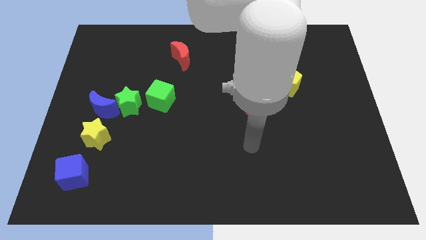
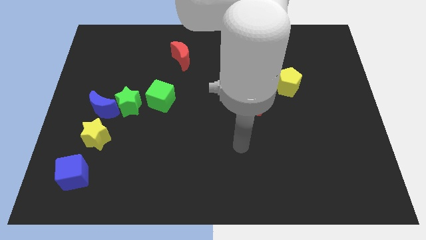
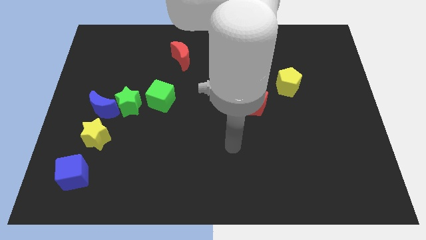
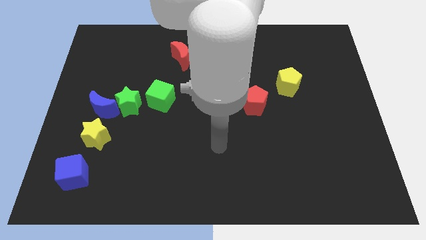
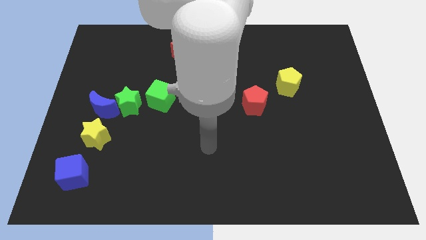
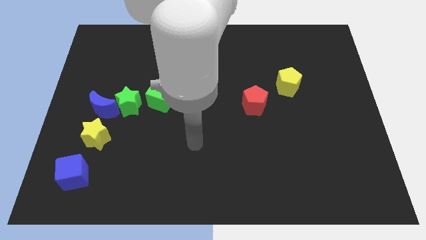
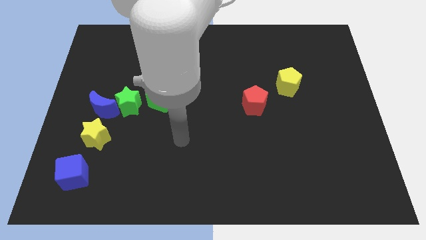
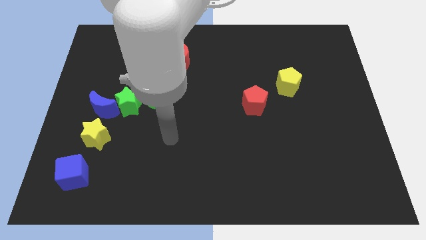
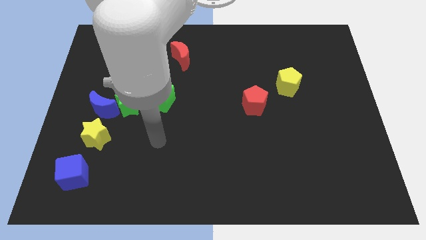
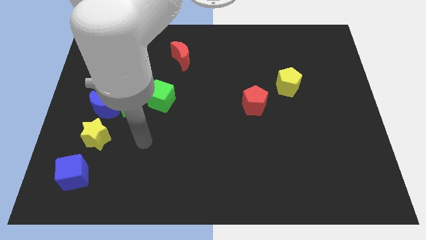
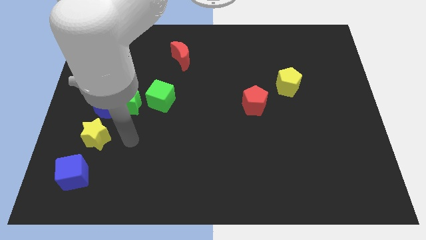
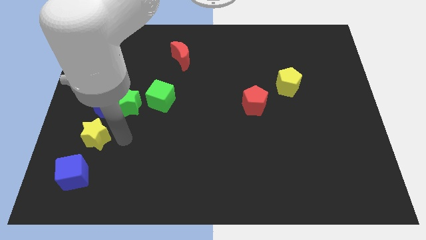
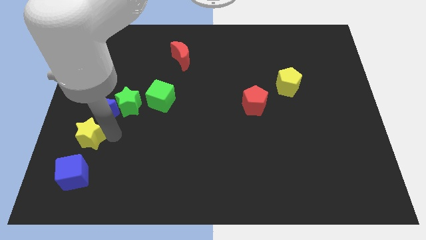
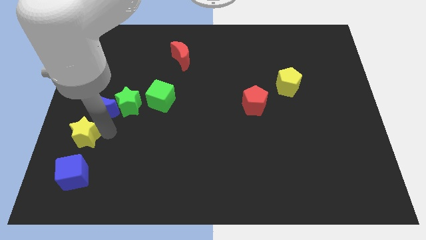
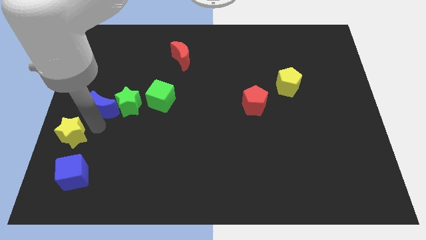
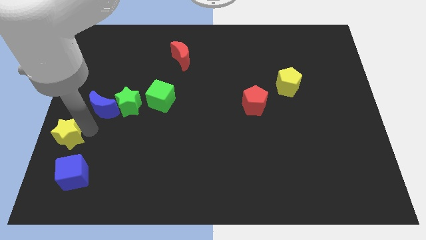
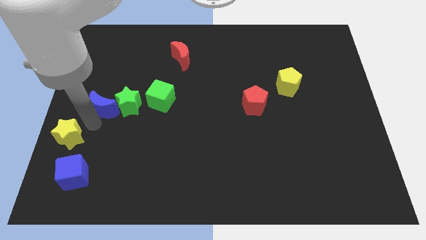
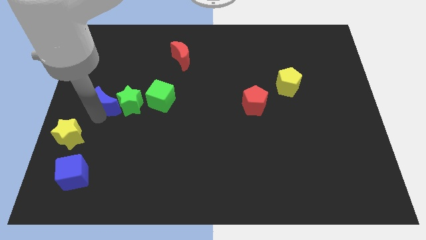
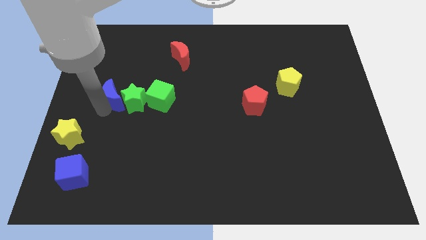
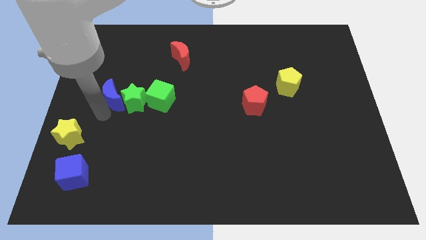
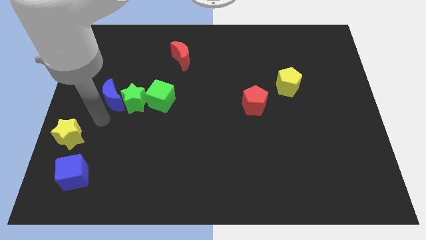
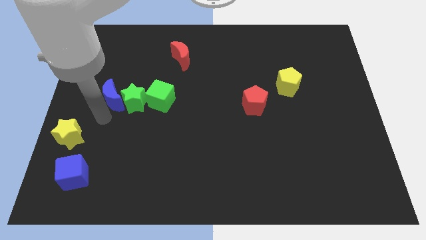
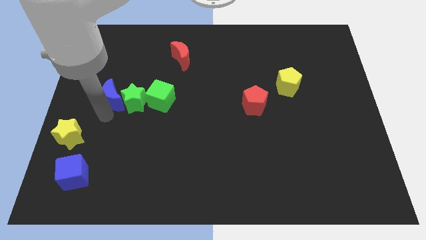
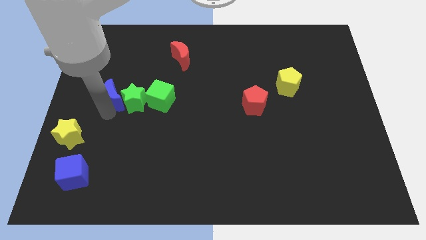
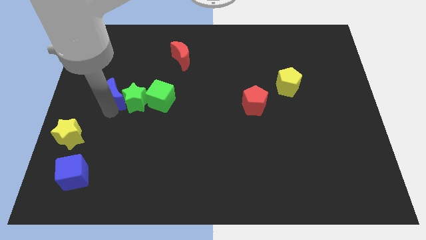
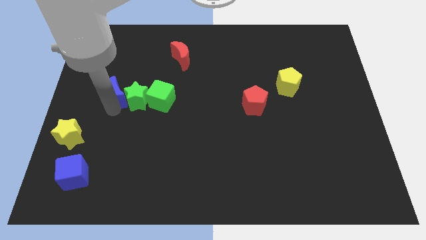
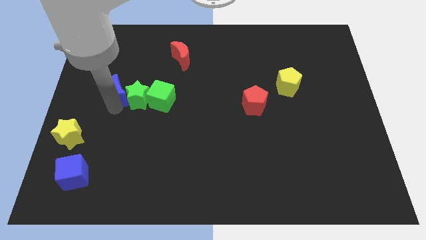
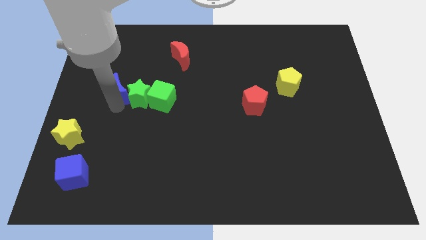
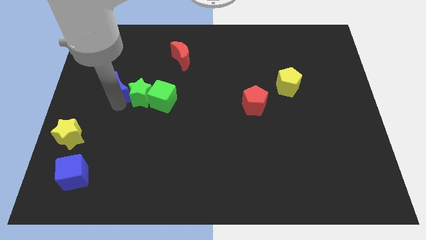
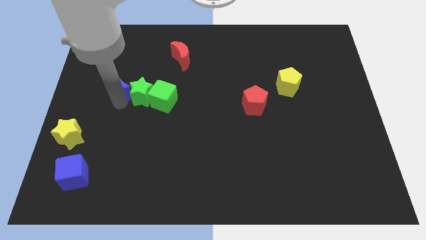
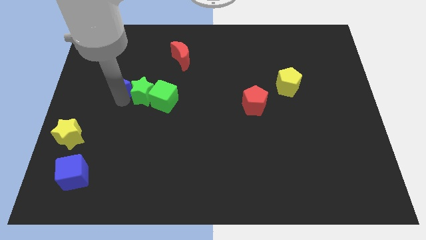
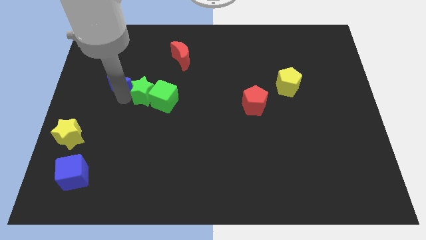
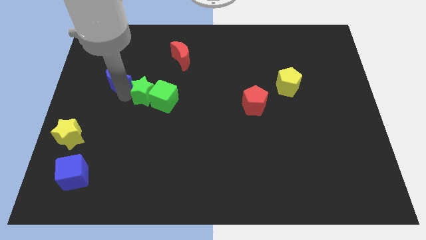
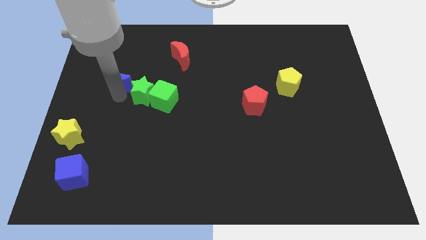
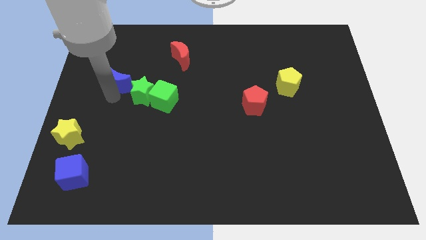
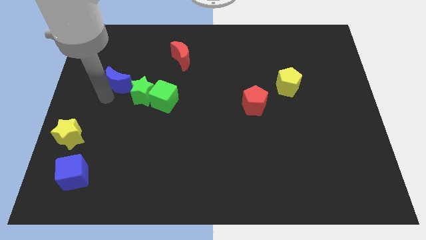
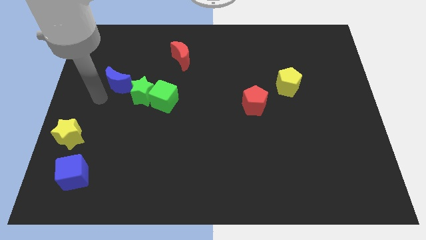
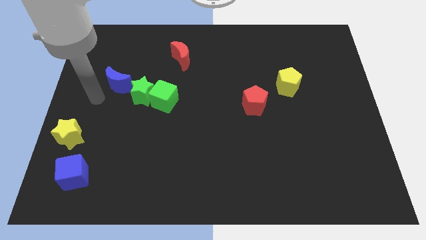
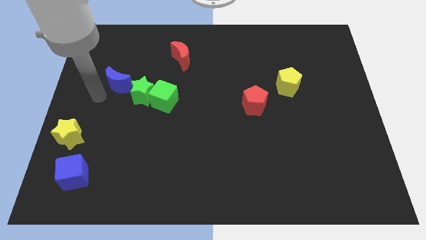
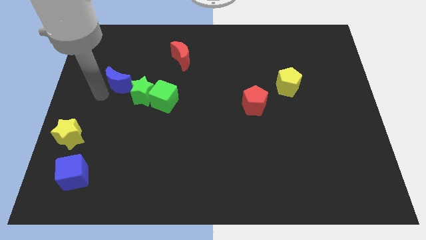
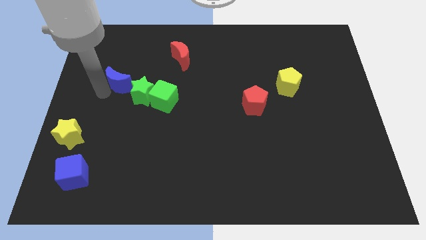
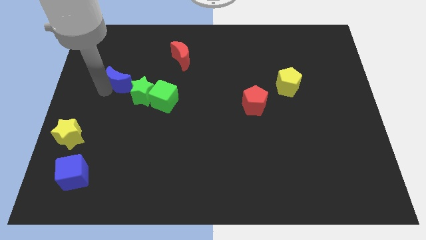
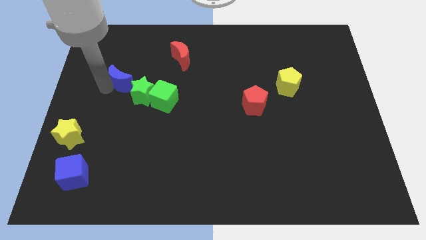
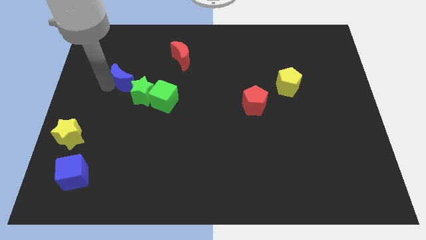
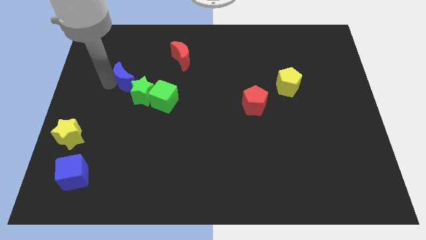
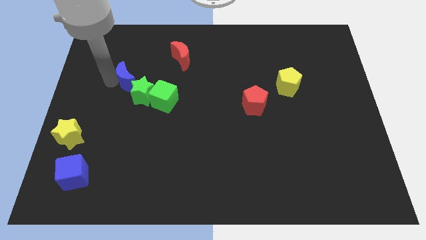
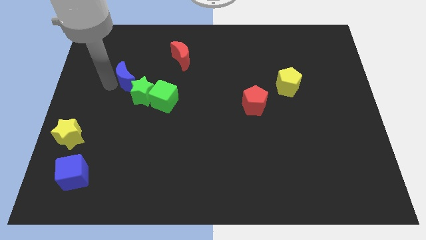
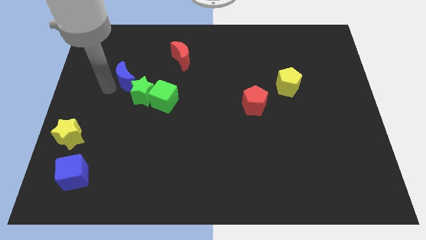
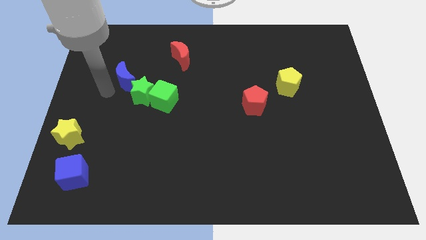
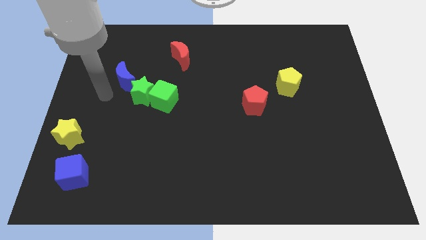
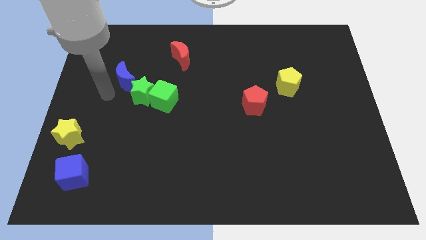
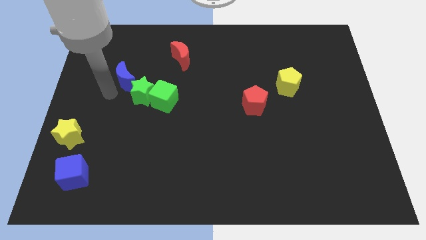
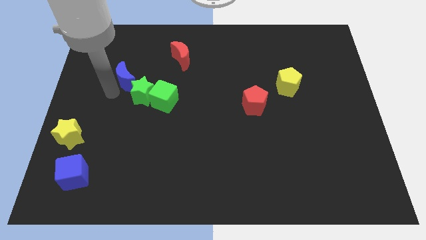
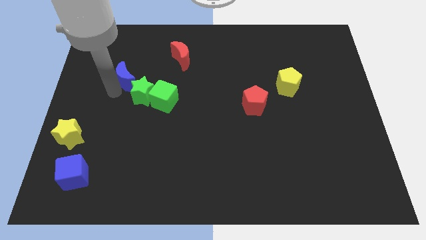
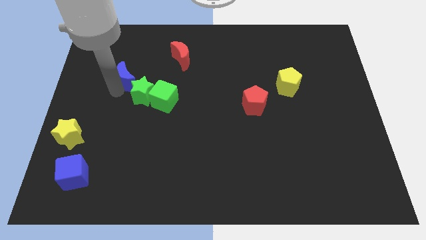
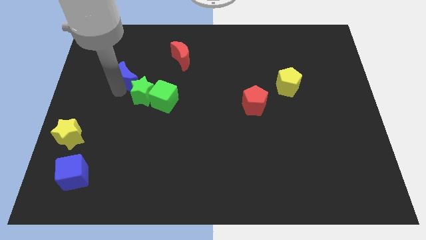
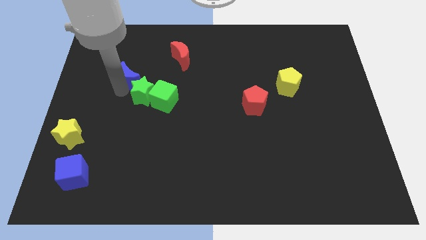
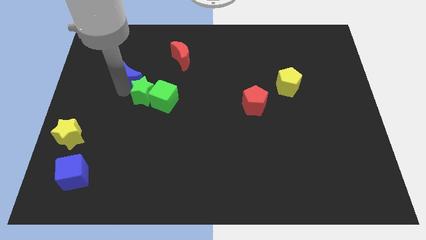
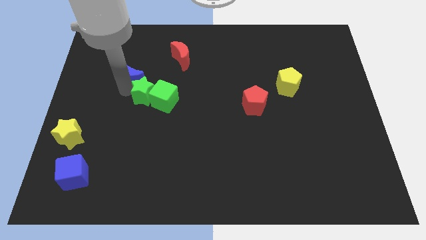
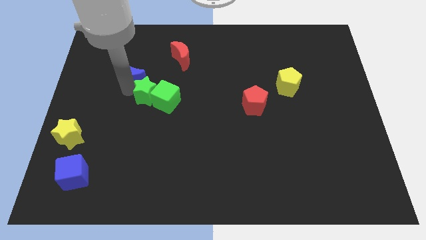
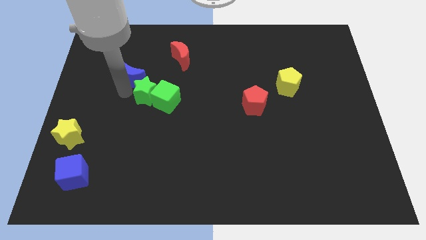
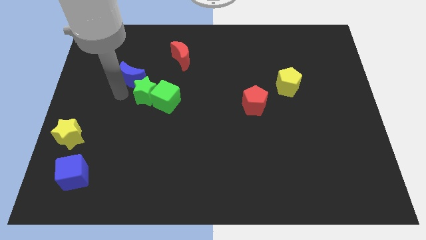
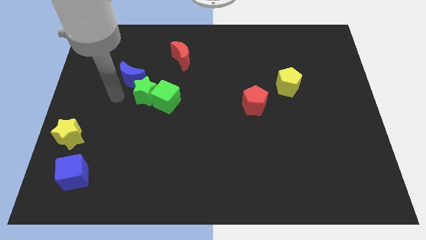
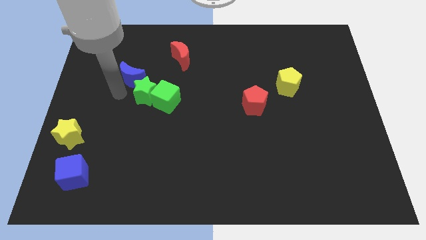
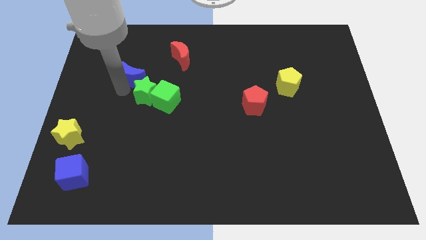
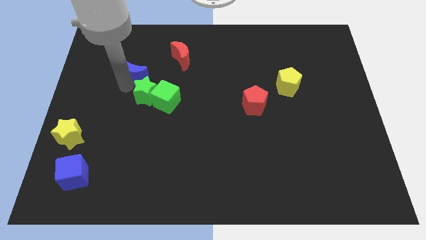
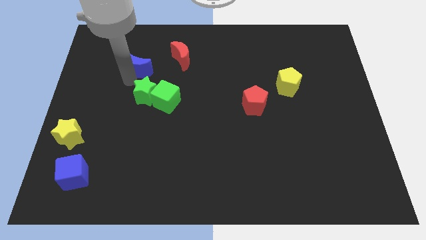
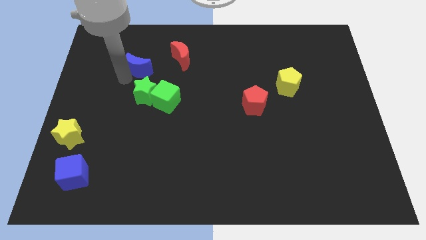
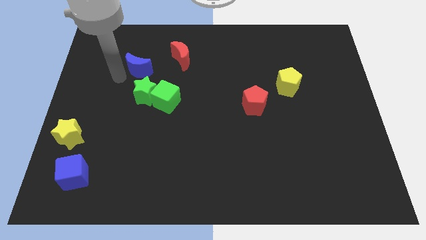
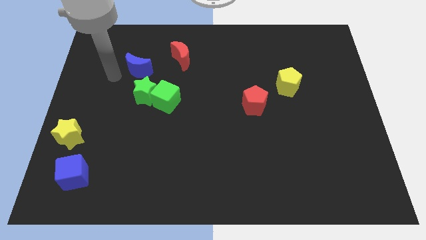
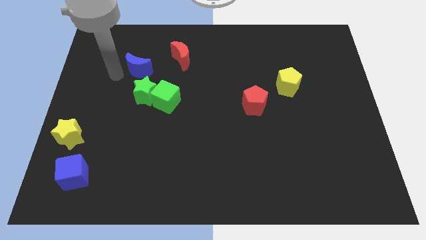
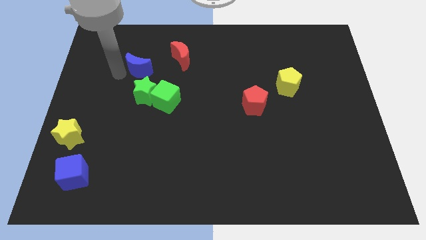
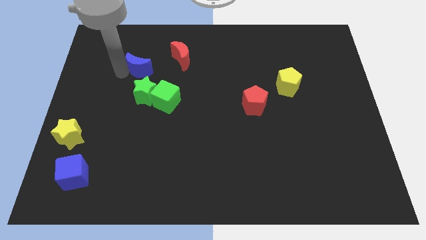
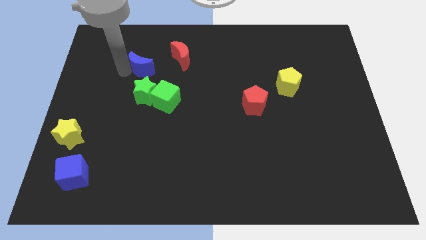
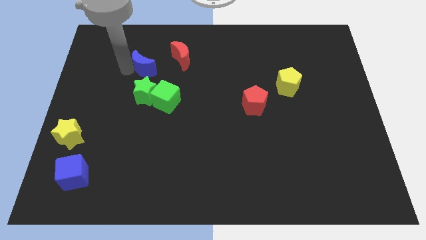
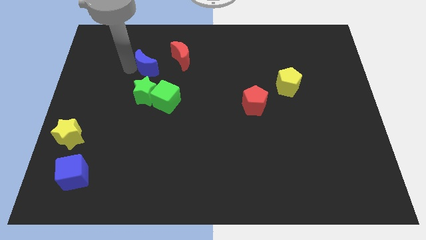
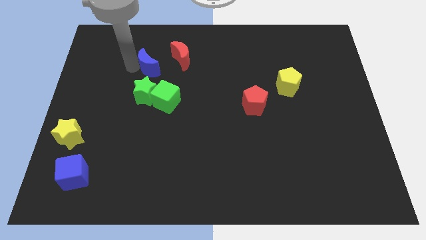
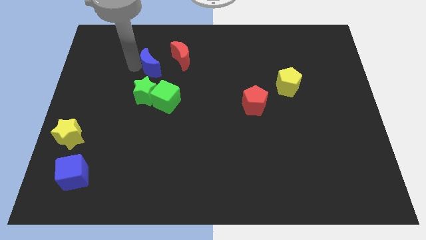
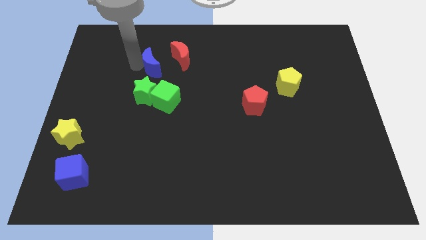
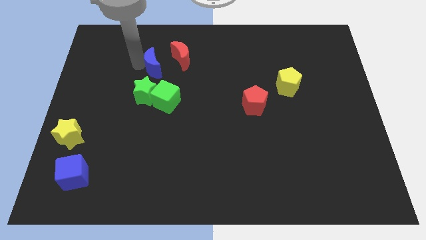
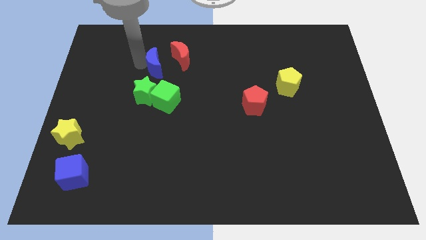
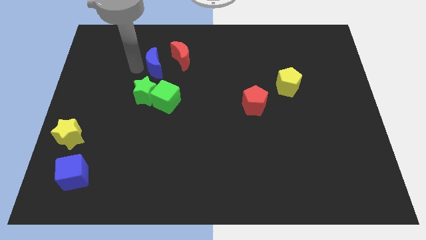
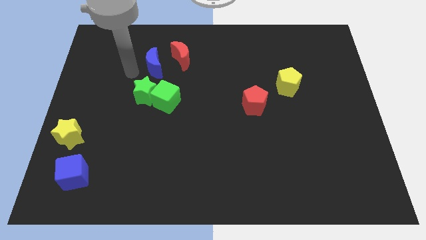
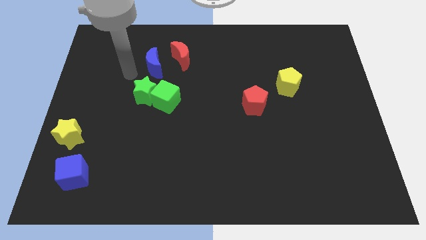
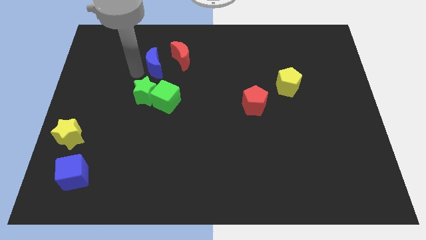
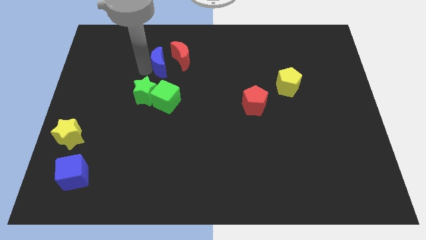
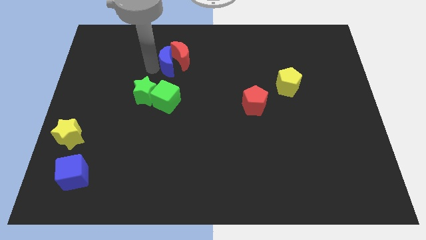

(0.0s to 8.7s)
push the blue moon next to the red moon
